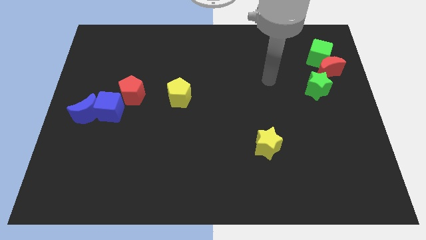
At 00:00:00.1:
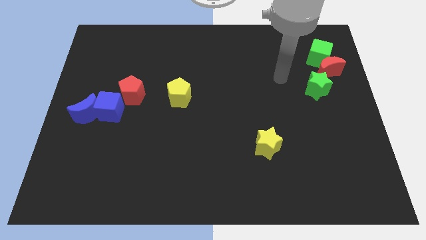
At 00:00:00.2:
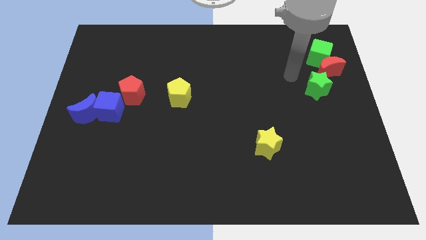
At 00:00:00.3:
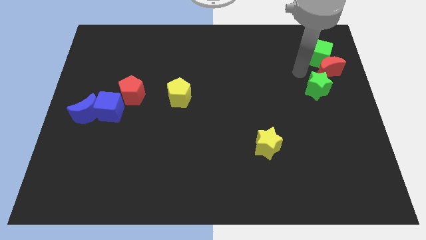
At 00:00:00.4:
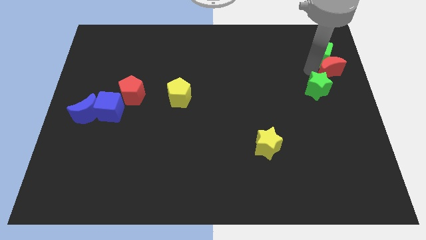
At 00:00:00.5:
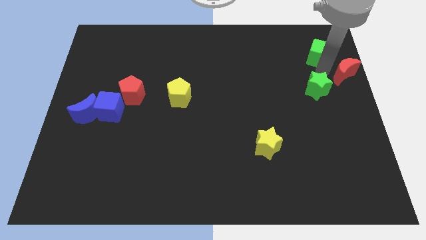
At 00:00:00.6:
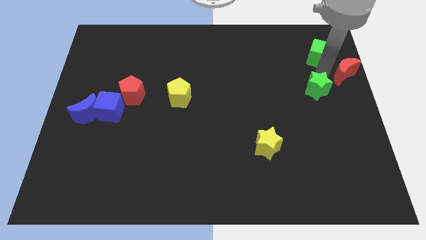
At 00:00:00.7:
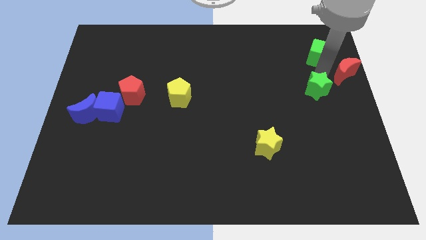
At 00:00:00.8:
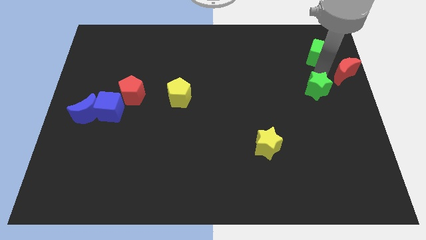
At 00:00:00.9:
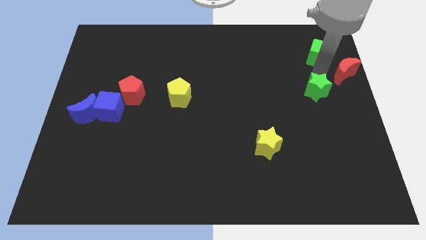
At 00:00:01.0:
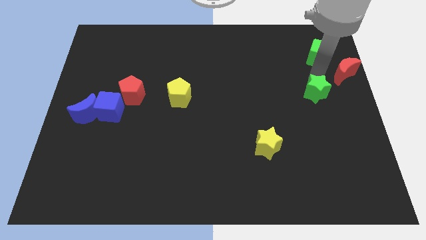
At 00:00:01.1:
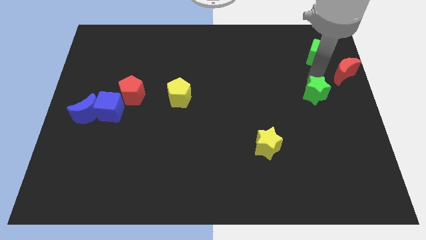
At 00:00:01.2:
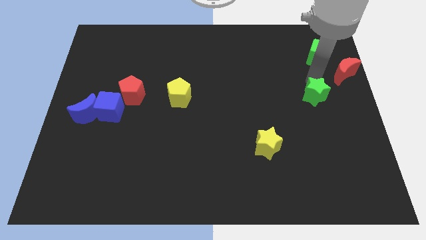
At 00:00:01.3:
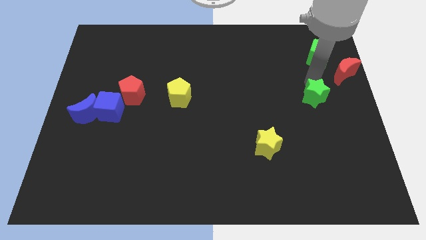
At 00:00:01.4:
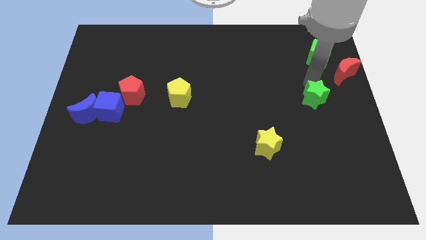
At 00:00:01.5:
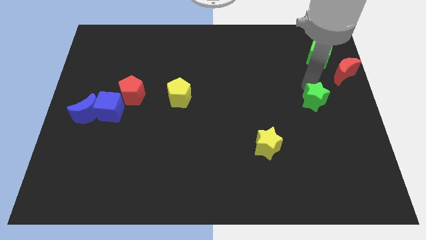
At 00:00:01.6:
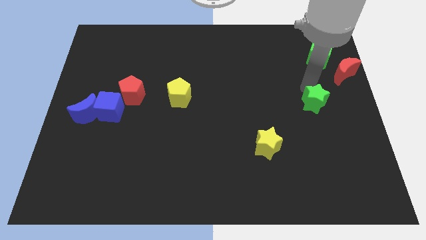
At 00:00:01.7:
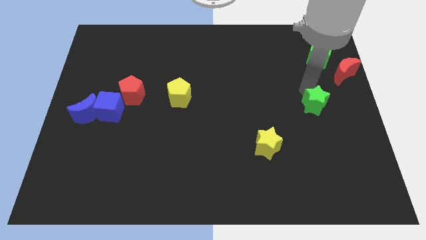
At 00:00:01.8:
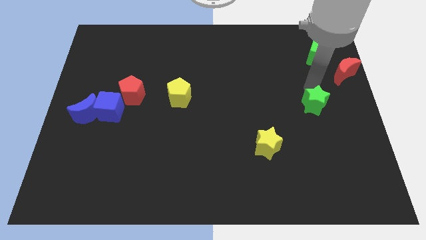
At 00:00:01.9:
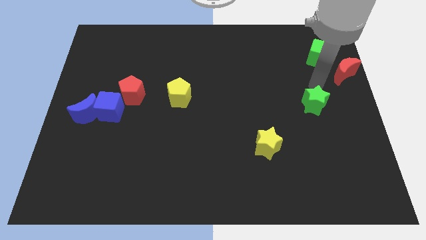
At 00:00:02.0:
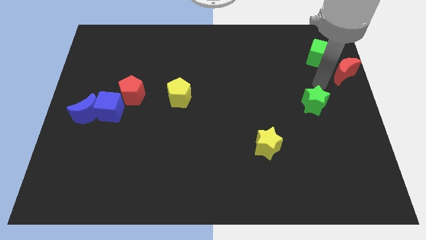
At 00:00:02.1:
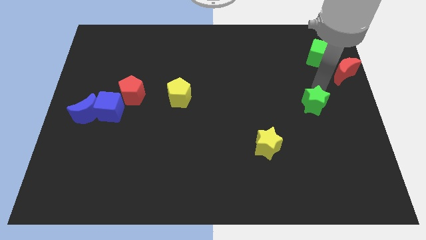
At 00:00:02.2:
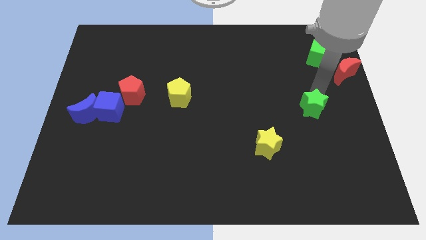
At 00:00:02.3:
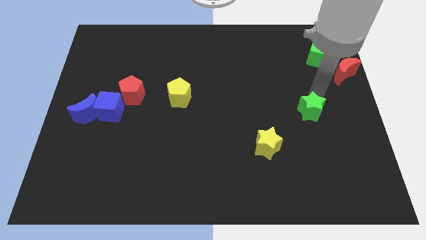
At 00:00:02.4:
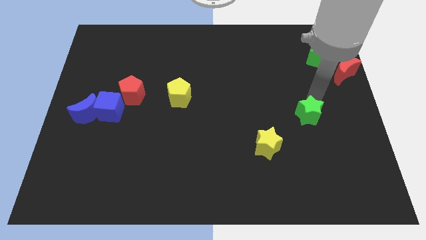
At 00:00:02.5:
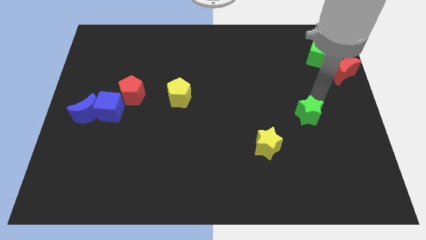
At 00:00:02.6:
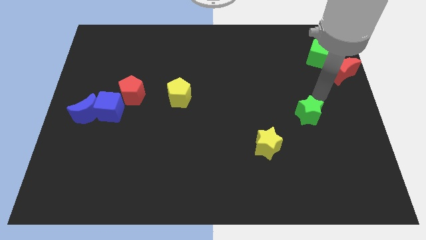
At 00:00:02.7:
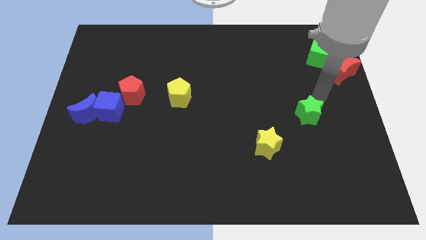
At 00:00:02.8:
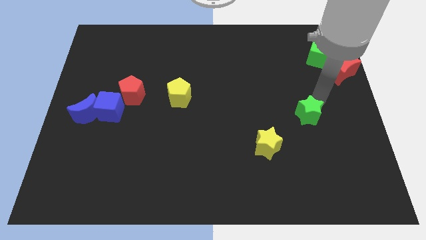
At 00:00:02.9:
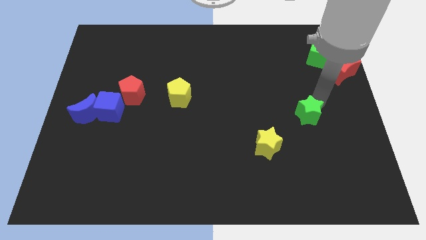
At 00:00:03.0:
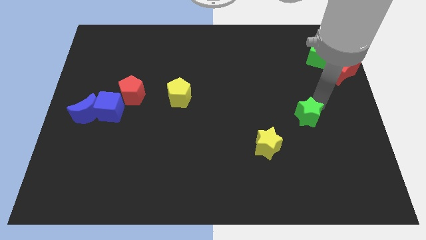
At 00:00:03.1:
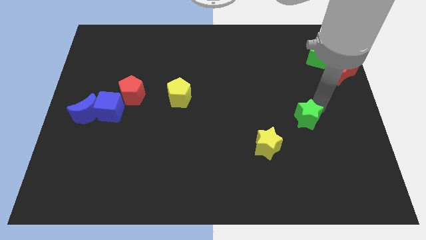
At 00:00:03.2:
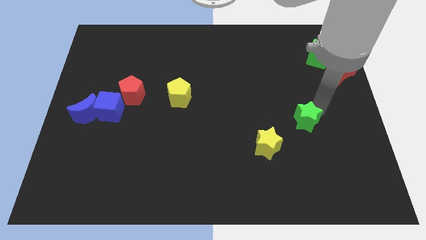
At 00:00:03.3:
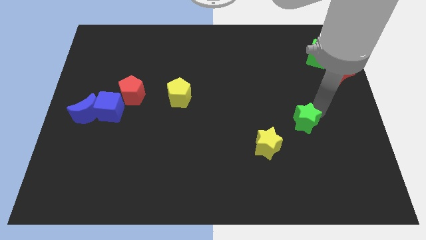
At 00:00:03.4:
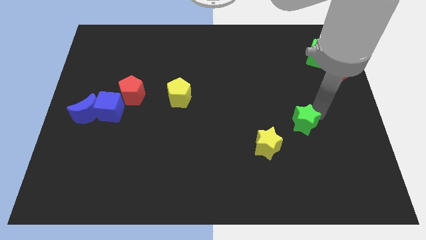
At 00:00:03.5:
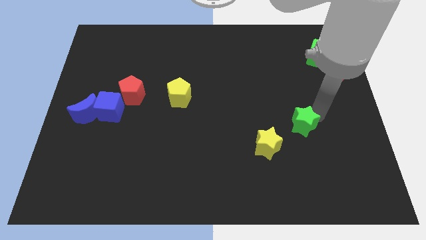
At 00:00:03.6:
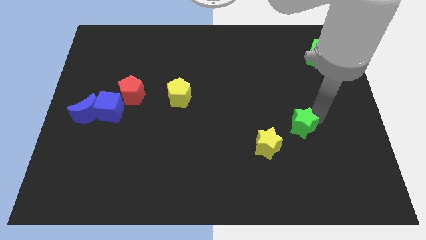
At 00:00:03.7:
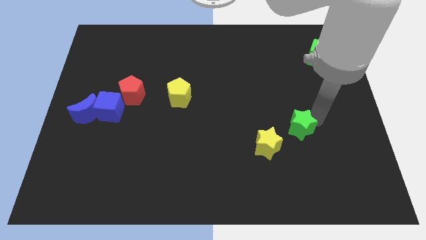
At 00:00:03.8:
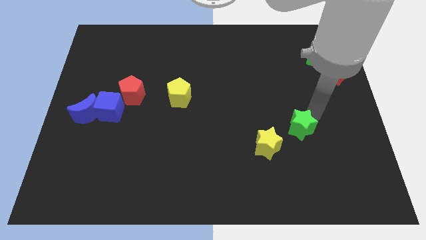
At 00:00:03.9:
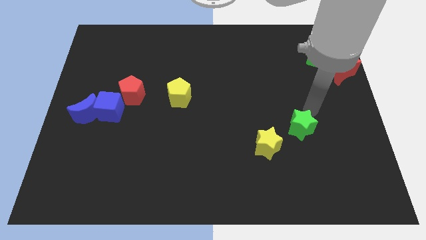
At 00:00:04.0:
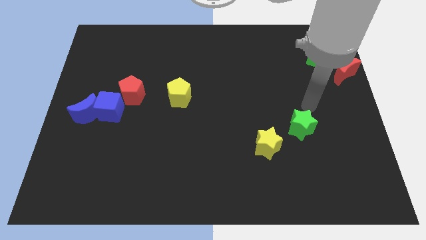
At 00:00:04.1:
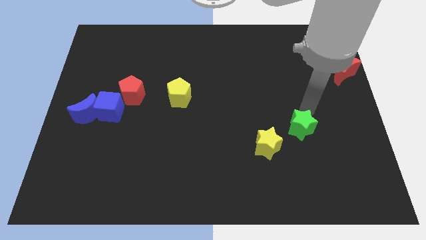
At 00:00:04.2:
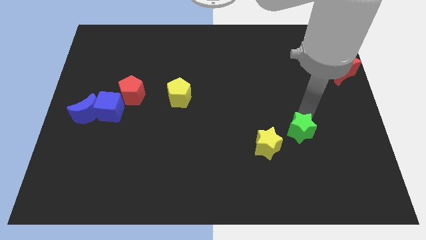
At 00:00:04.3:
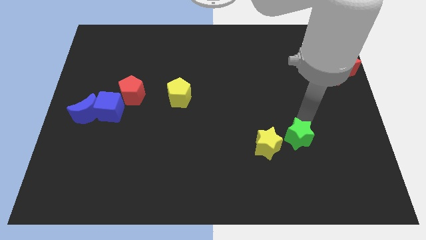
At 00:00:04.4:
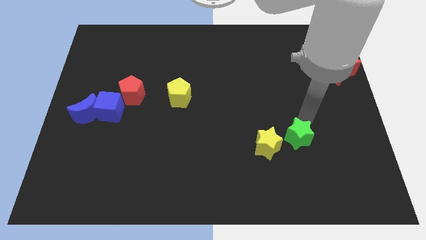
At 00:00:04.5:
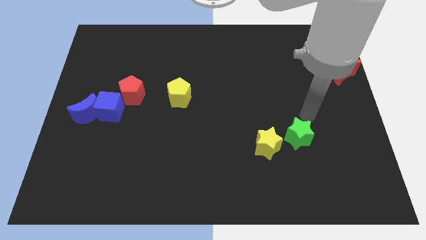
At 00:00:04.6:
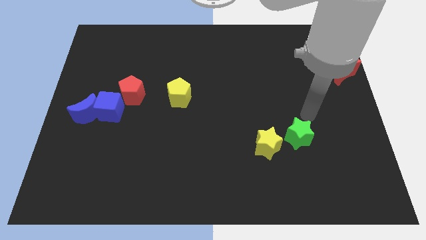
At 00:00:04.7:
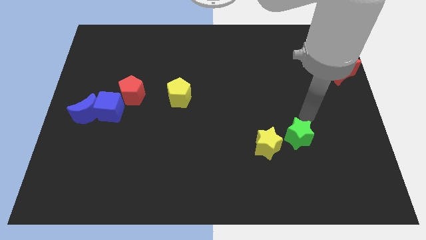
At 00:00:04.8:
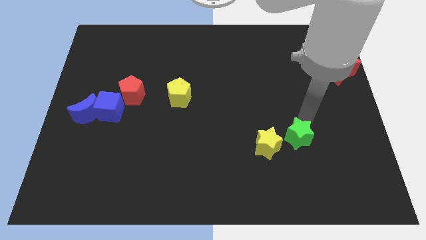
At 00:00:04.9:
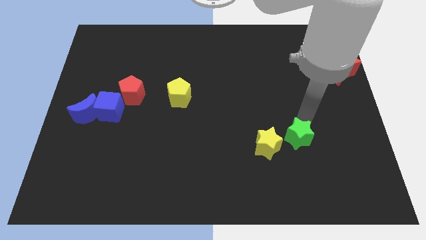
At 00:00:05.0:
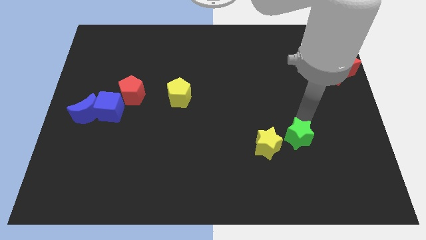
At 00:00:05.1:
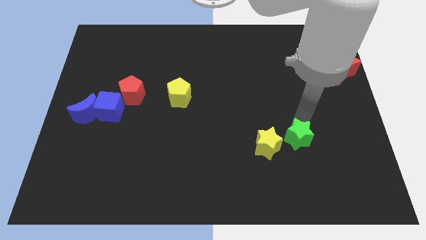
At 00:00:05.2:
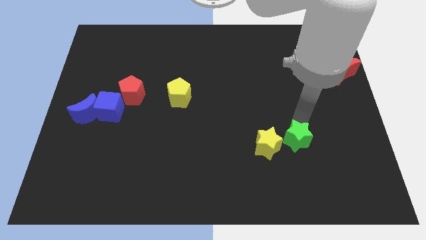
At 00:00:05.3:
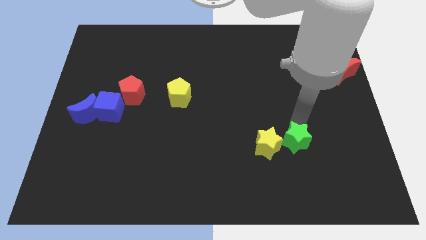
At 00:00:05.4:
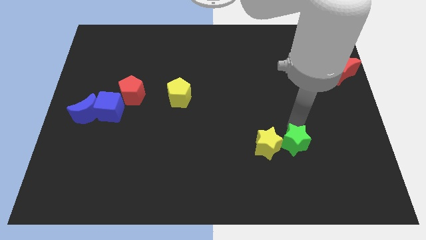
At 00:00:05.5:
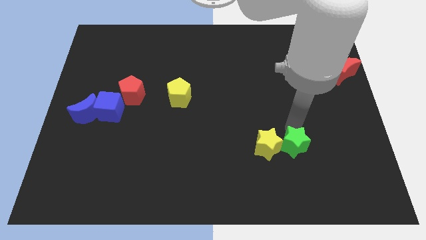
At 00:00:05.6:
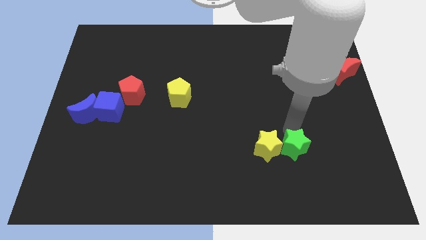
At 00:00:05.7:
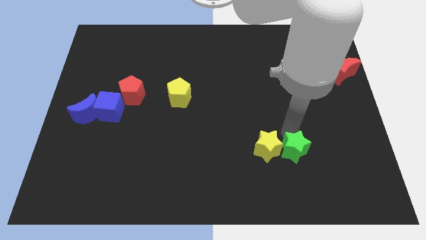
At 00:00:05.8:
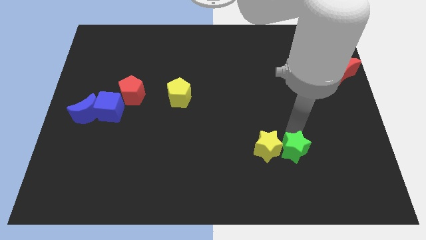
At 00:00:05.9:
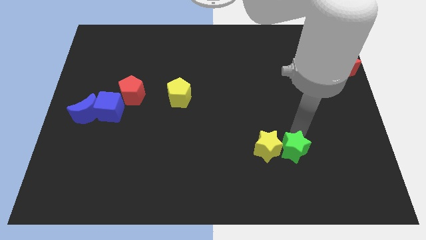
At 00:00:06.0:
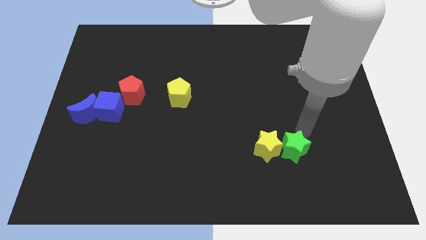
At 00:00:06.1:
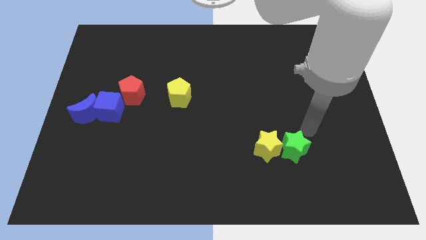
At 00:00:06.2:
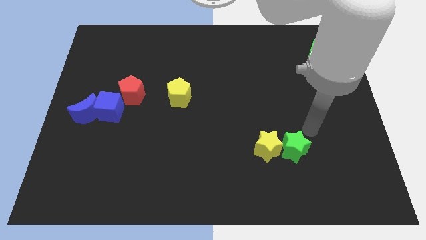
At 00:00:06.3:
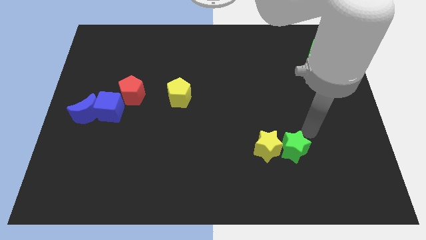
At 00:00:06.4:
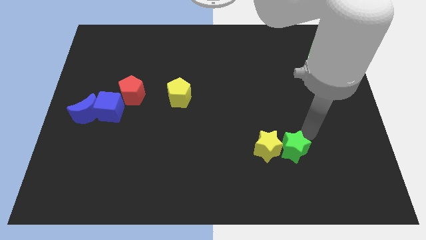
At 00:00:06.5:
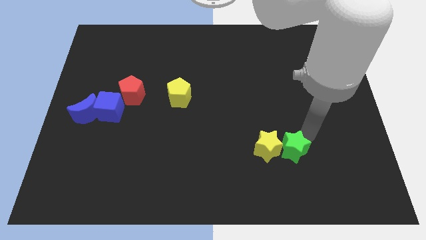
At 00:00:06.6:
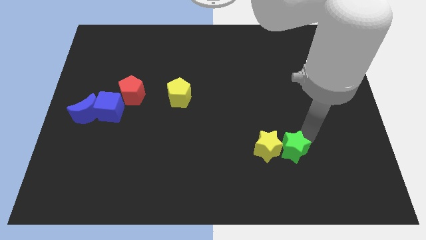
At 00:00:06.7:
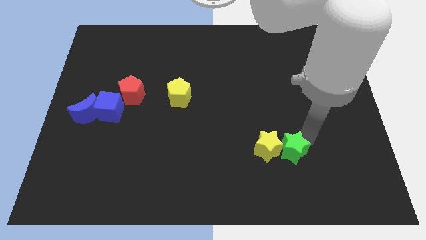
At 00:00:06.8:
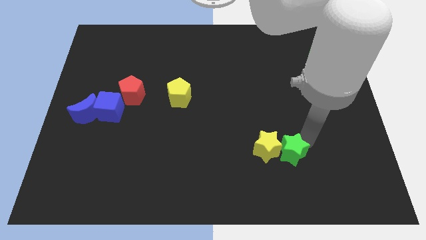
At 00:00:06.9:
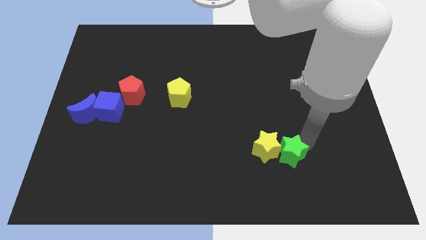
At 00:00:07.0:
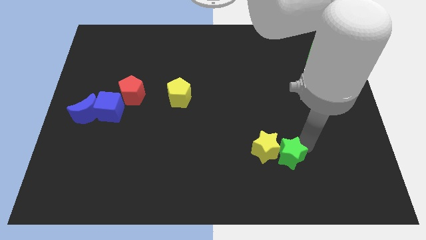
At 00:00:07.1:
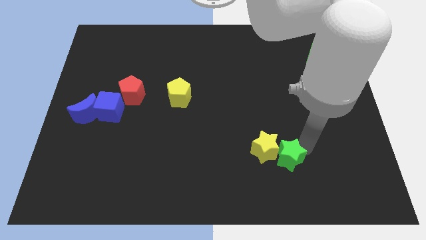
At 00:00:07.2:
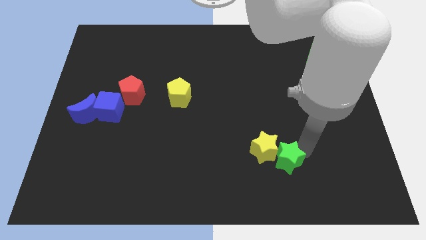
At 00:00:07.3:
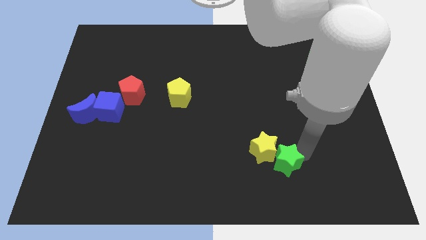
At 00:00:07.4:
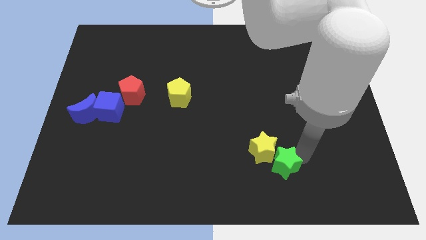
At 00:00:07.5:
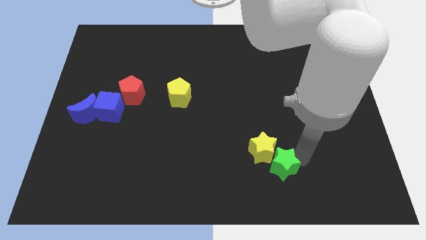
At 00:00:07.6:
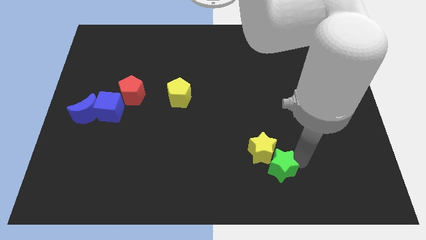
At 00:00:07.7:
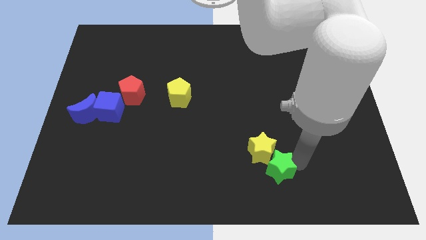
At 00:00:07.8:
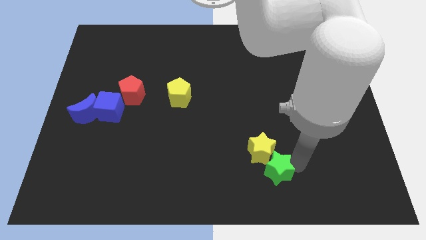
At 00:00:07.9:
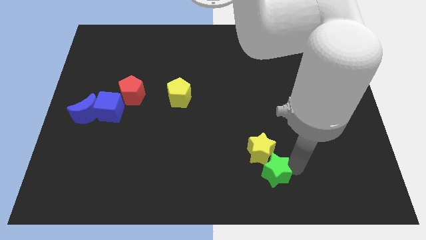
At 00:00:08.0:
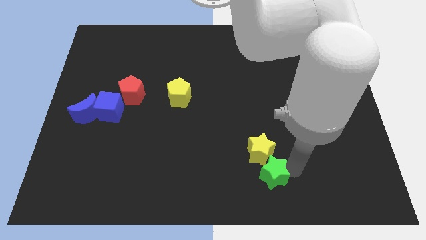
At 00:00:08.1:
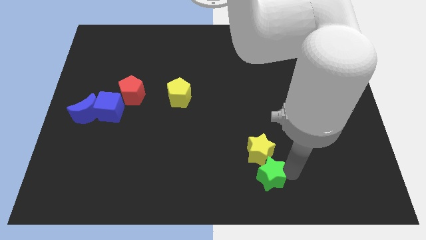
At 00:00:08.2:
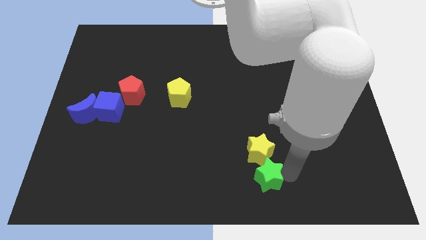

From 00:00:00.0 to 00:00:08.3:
slide the green star to the bottom side
